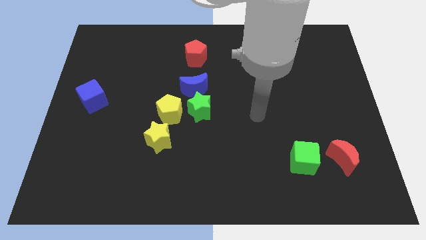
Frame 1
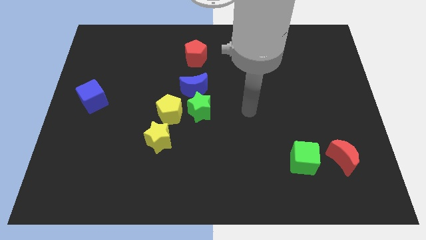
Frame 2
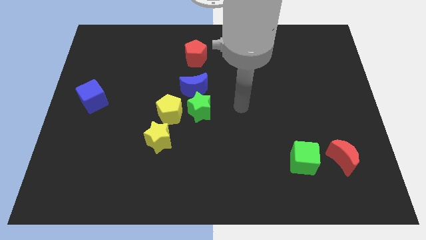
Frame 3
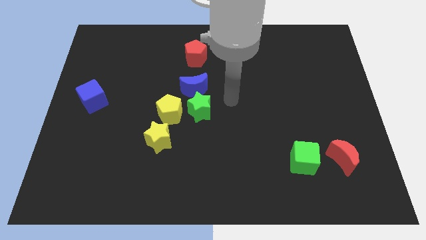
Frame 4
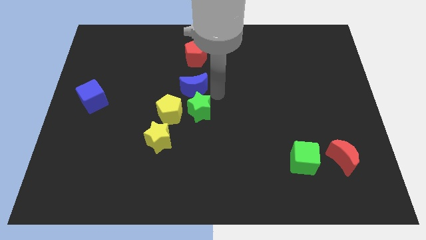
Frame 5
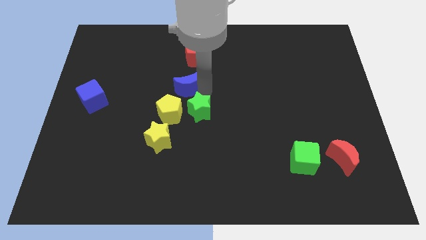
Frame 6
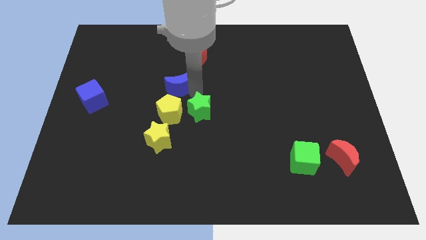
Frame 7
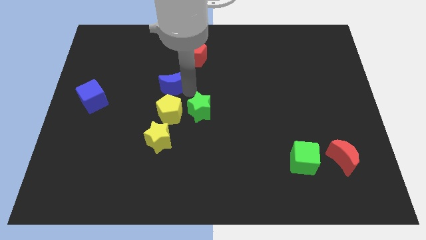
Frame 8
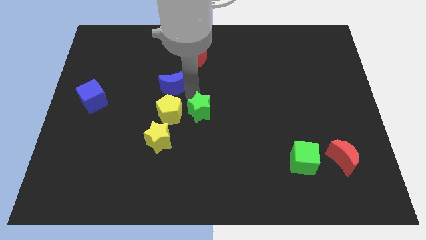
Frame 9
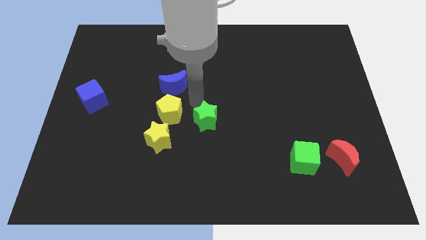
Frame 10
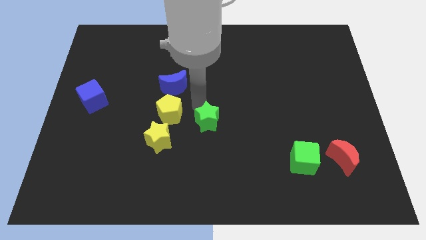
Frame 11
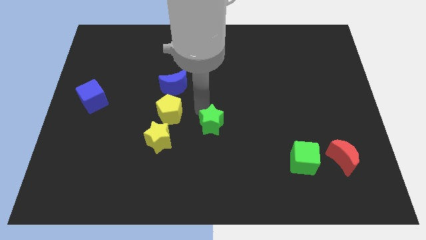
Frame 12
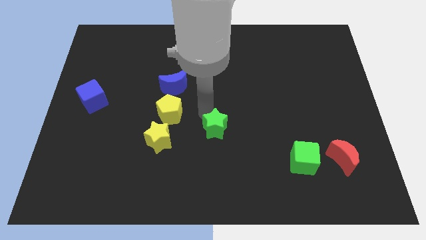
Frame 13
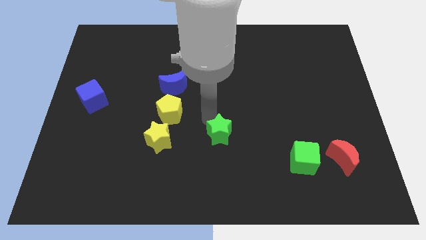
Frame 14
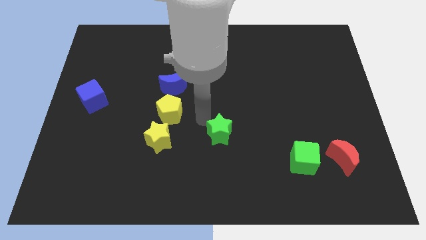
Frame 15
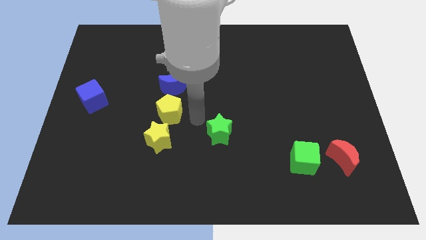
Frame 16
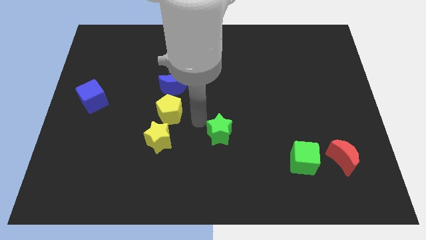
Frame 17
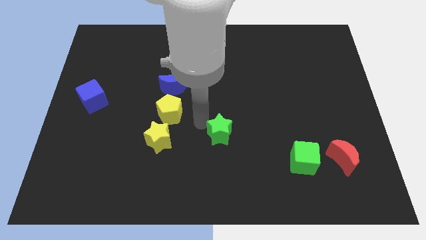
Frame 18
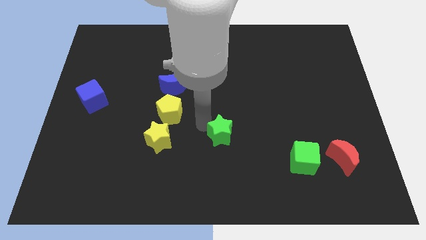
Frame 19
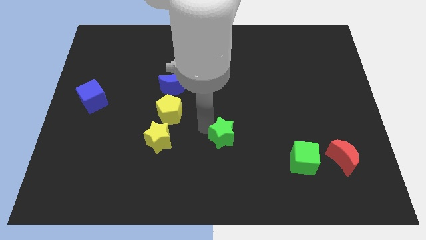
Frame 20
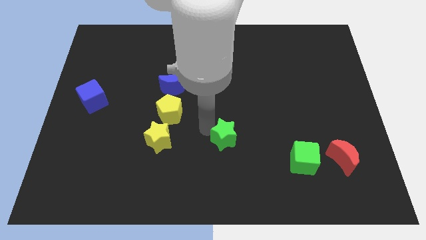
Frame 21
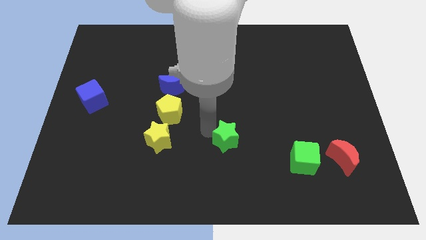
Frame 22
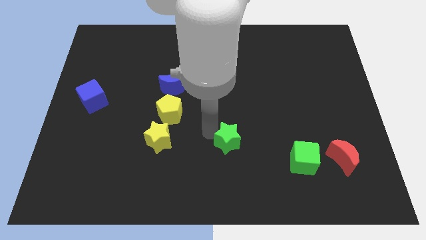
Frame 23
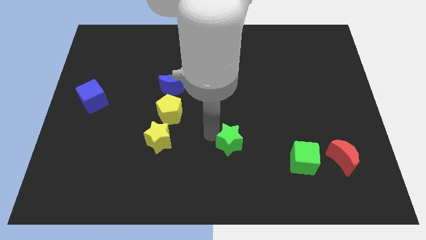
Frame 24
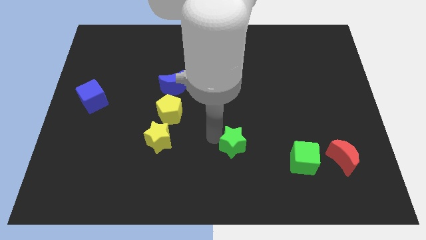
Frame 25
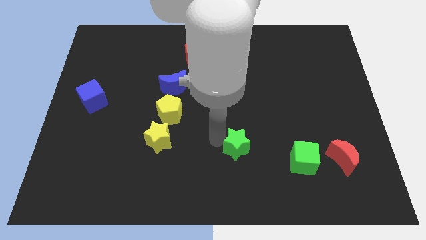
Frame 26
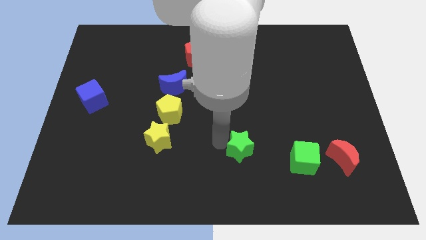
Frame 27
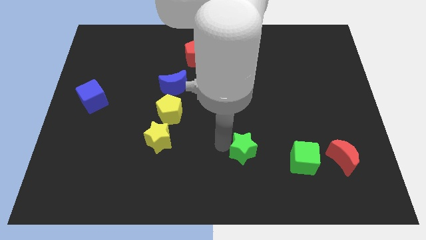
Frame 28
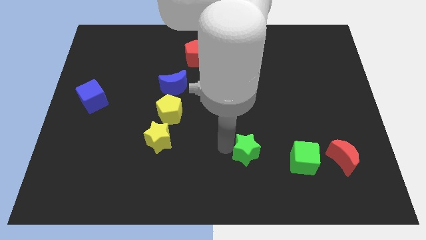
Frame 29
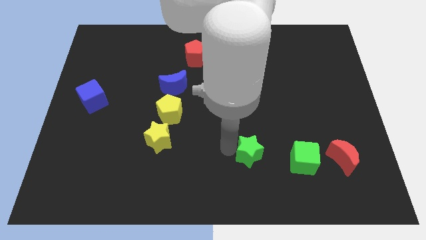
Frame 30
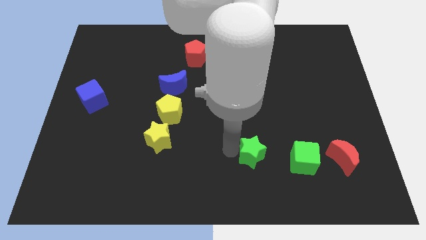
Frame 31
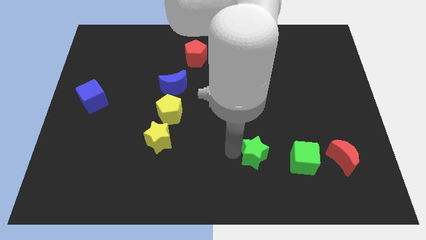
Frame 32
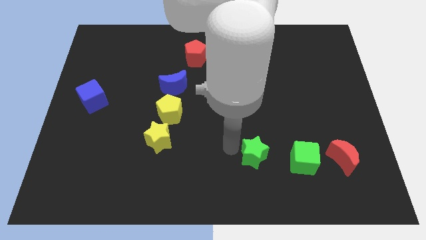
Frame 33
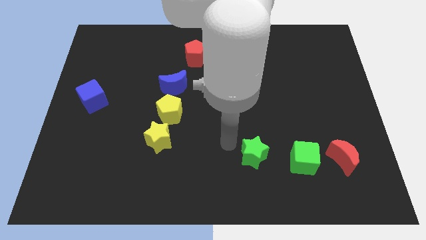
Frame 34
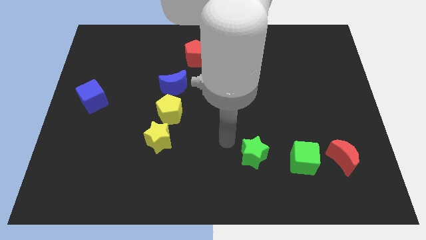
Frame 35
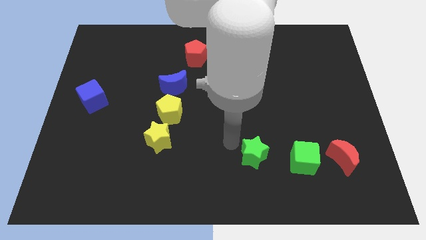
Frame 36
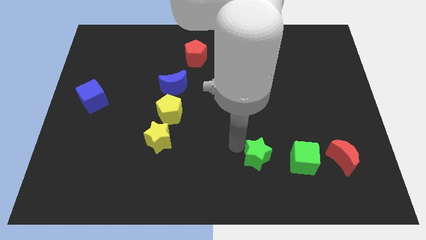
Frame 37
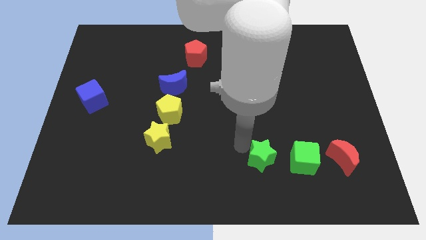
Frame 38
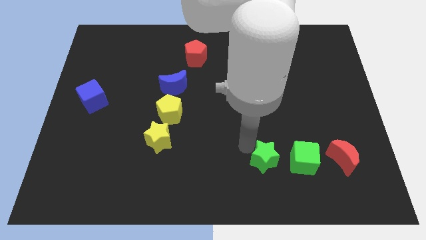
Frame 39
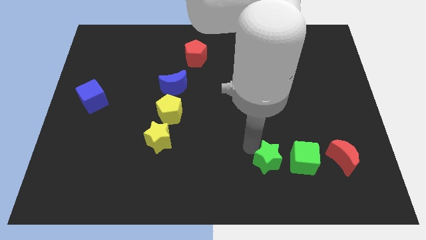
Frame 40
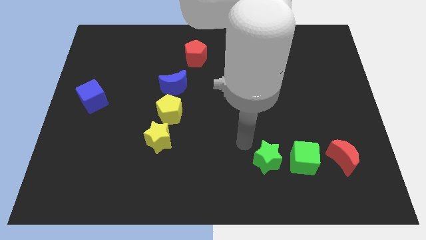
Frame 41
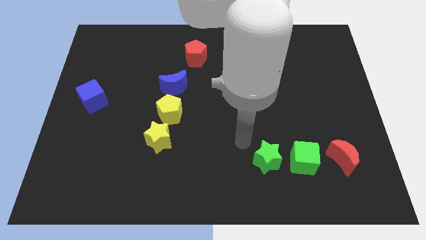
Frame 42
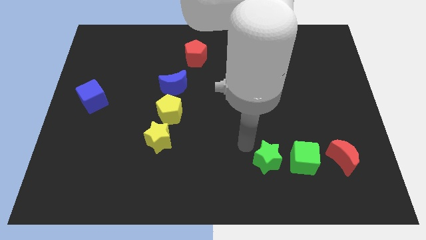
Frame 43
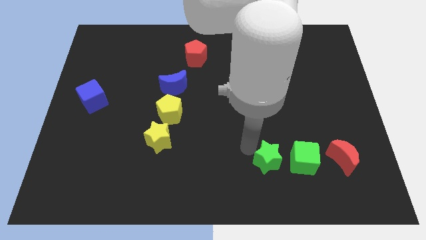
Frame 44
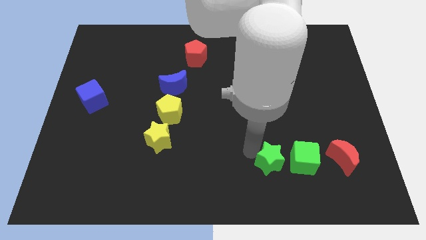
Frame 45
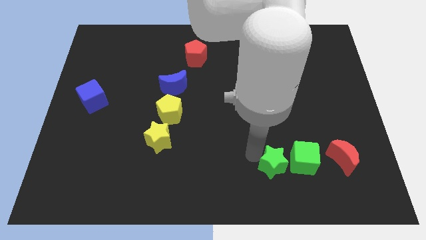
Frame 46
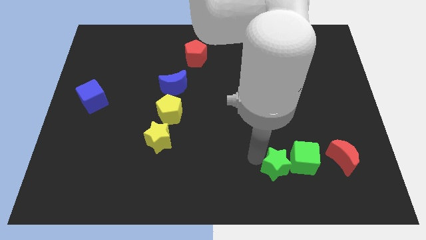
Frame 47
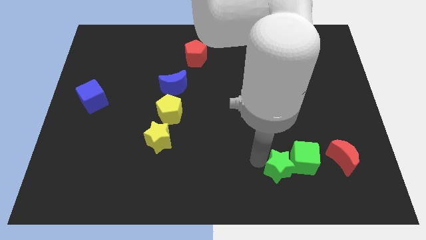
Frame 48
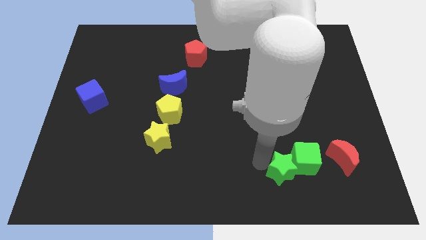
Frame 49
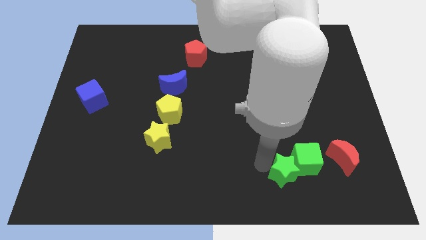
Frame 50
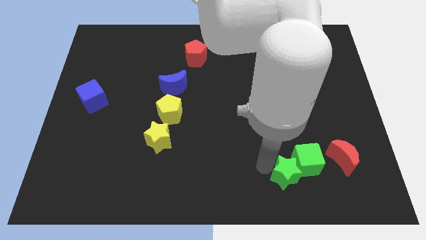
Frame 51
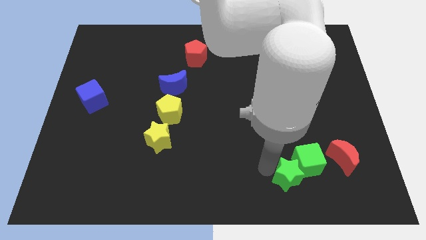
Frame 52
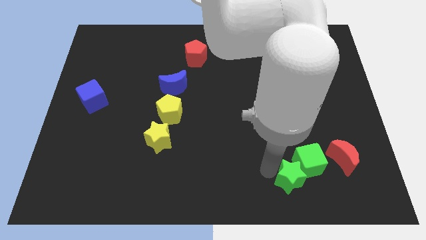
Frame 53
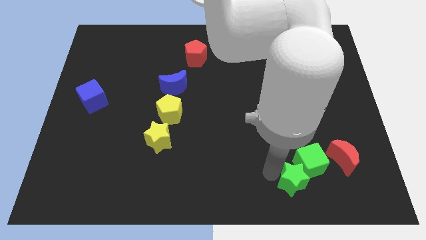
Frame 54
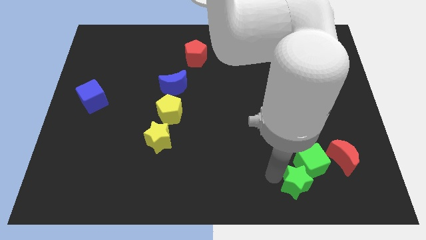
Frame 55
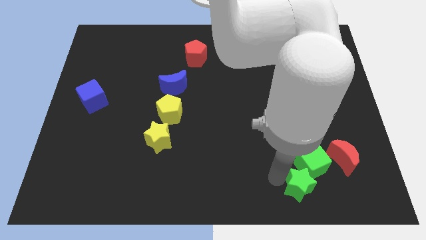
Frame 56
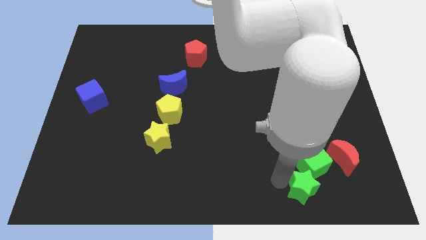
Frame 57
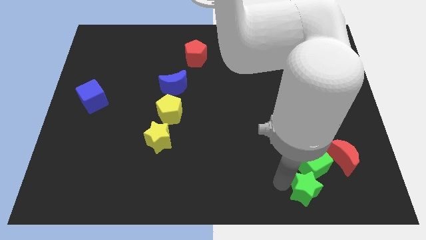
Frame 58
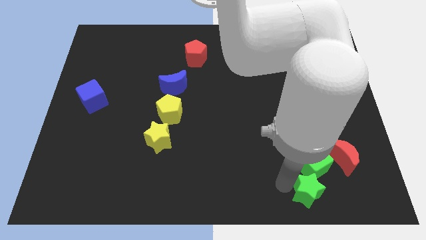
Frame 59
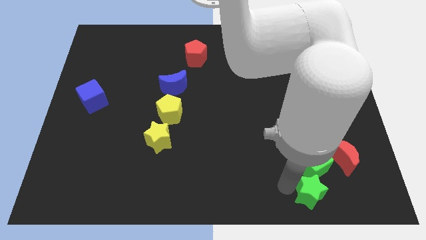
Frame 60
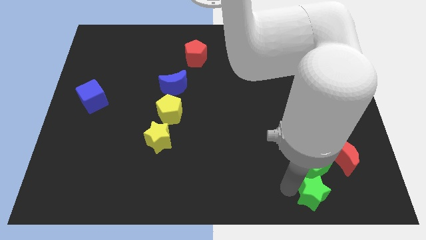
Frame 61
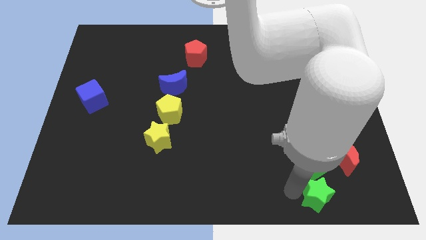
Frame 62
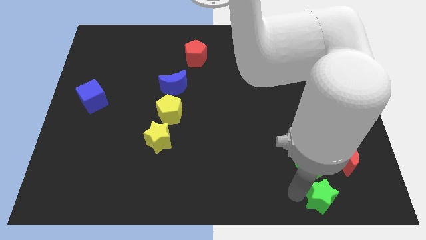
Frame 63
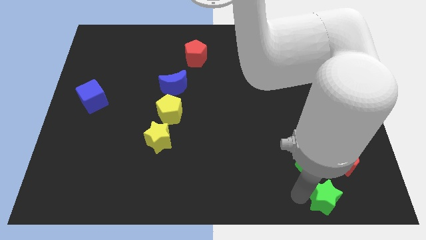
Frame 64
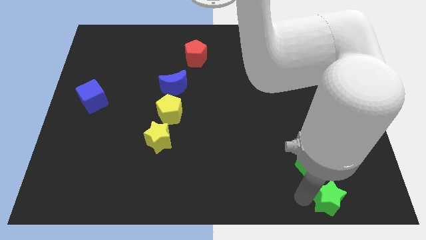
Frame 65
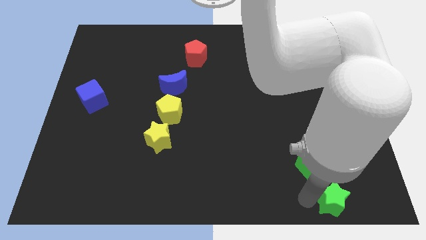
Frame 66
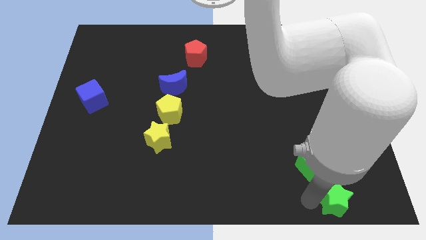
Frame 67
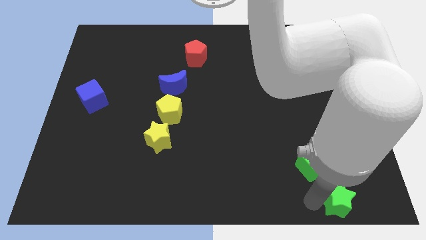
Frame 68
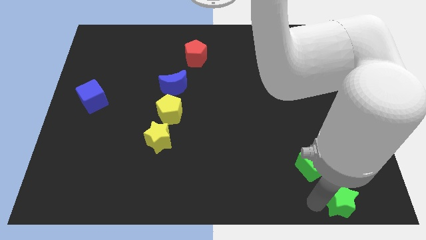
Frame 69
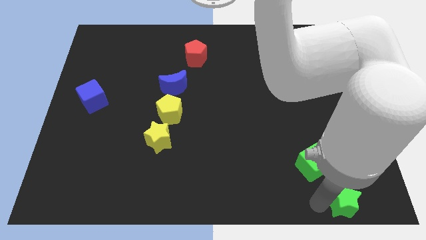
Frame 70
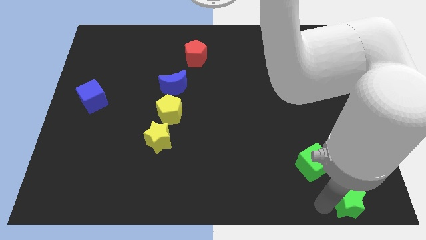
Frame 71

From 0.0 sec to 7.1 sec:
put the green star to the bottom right
